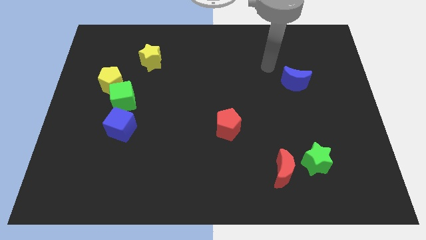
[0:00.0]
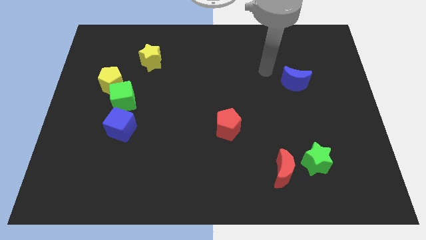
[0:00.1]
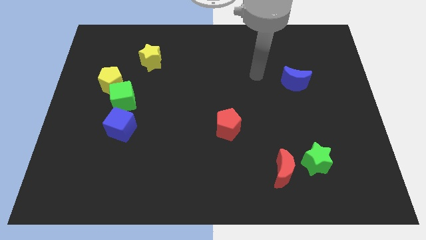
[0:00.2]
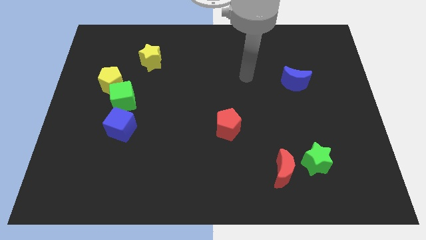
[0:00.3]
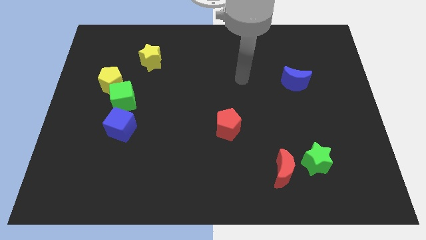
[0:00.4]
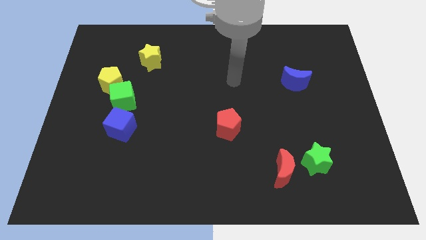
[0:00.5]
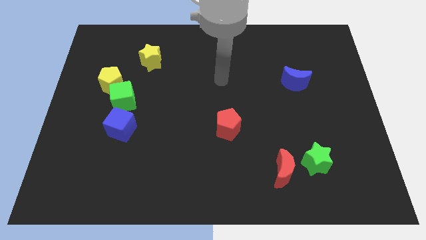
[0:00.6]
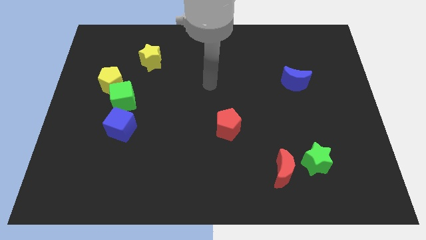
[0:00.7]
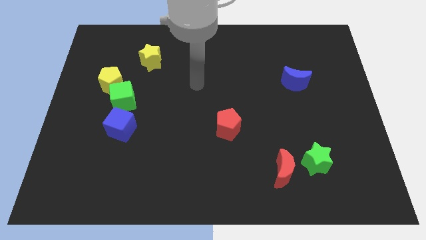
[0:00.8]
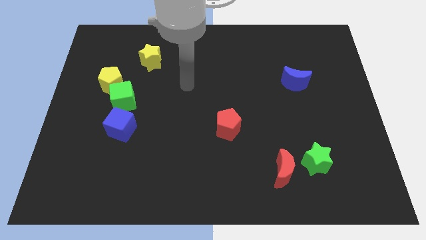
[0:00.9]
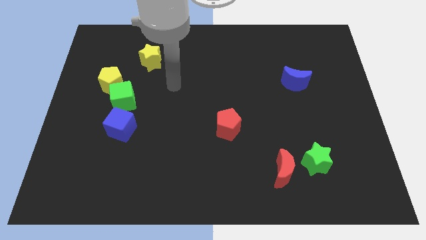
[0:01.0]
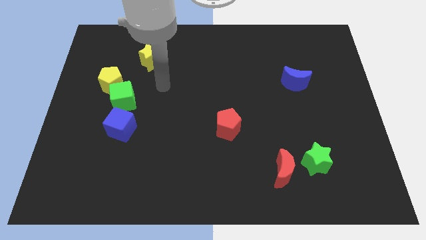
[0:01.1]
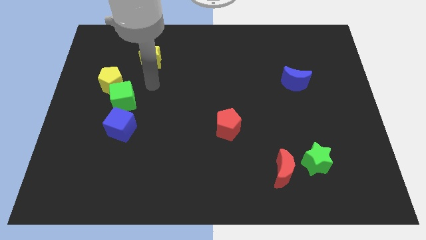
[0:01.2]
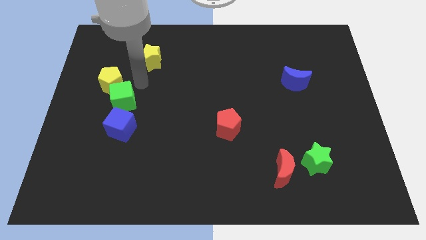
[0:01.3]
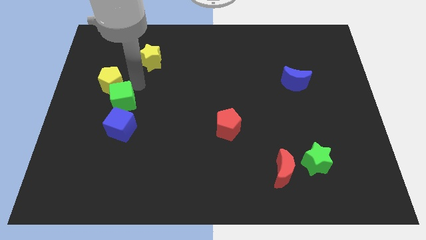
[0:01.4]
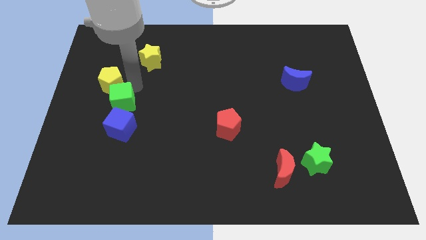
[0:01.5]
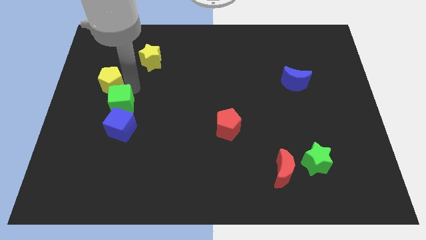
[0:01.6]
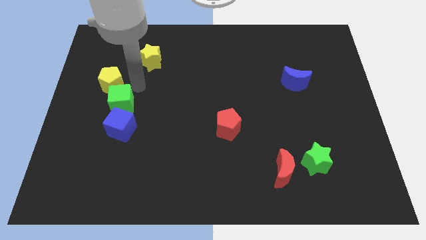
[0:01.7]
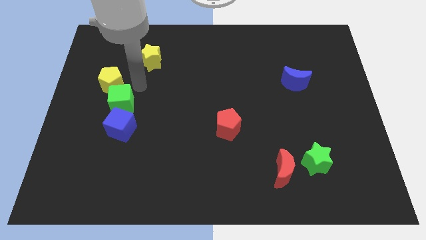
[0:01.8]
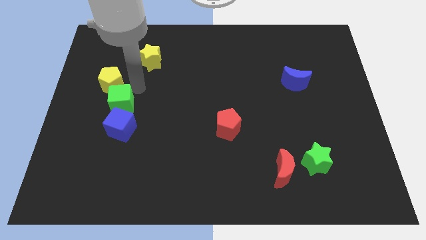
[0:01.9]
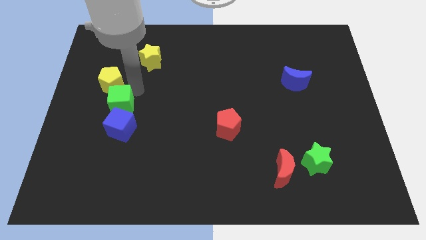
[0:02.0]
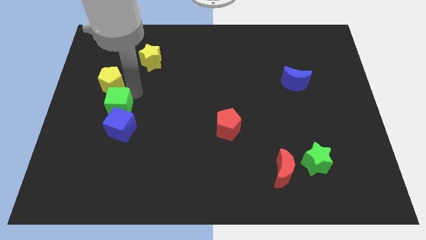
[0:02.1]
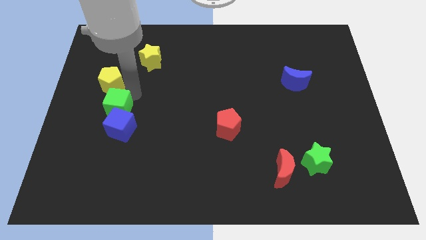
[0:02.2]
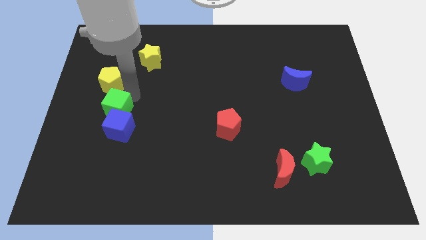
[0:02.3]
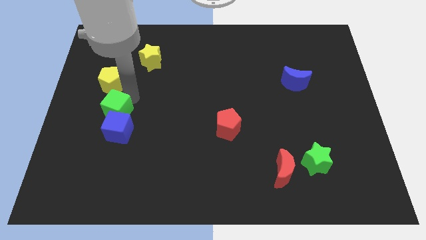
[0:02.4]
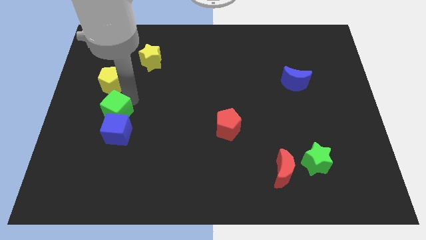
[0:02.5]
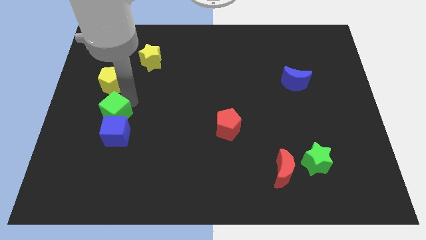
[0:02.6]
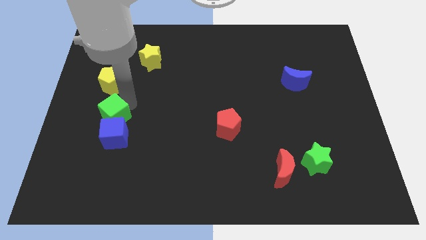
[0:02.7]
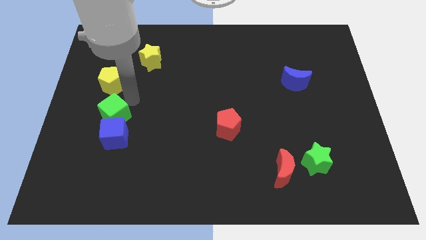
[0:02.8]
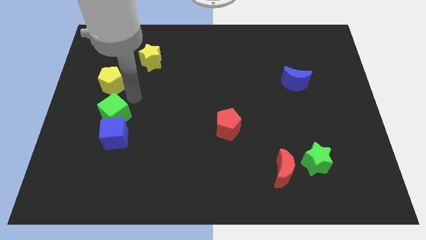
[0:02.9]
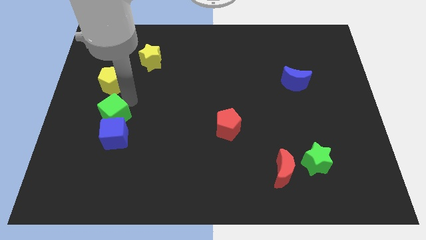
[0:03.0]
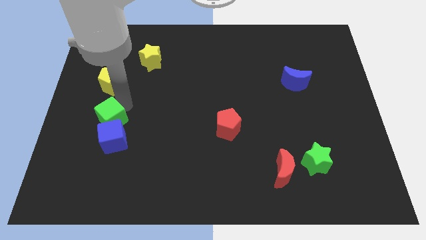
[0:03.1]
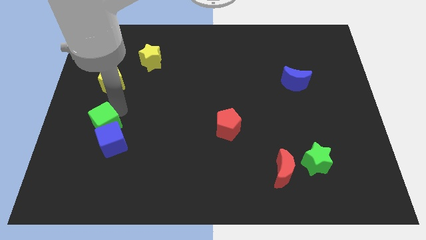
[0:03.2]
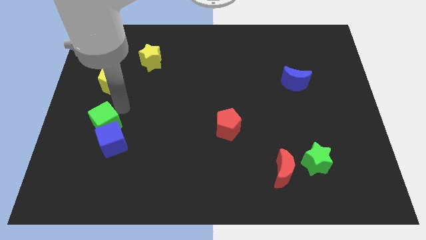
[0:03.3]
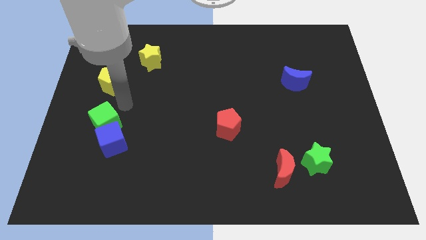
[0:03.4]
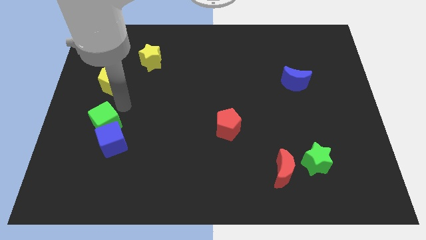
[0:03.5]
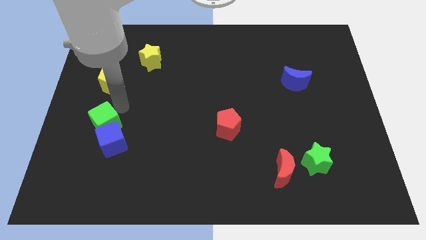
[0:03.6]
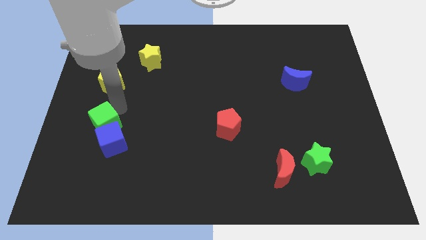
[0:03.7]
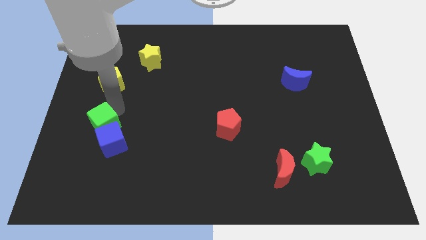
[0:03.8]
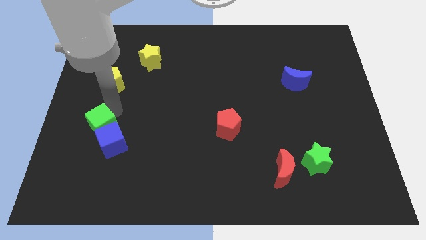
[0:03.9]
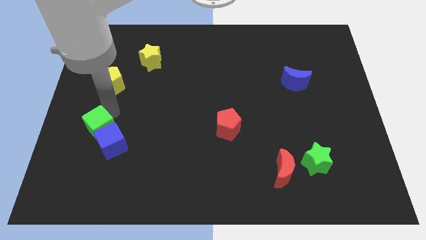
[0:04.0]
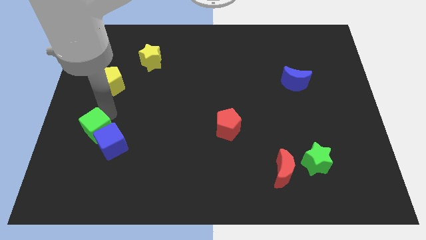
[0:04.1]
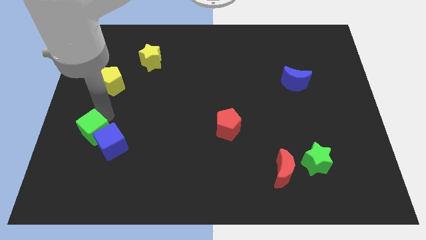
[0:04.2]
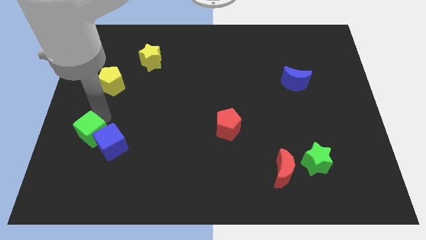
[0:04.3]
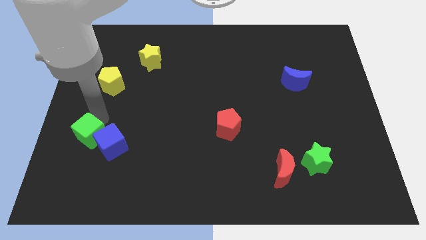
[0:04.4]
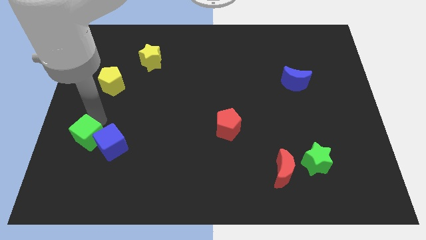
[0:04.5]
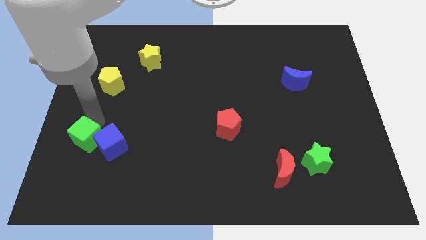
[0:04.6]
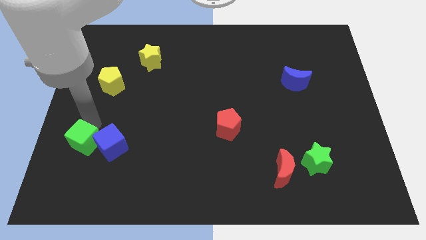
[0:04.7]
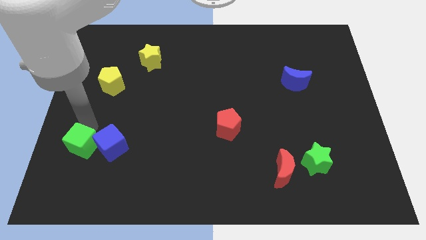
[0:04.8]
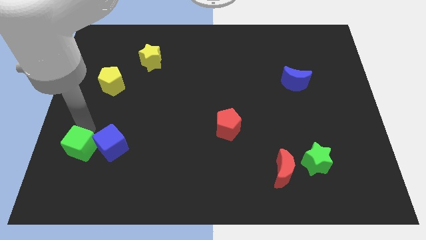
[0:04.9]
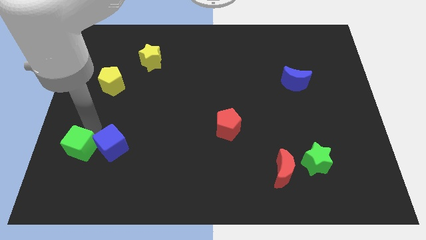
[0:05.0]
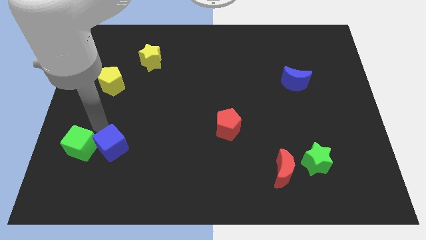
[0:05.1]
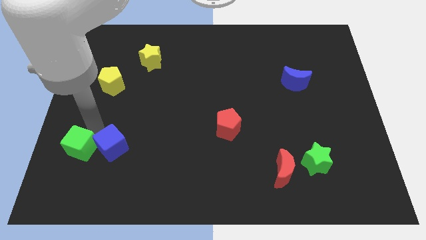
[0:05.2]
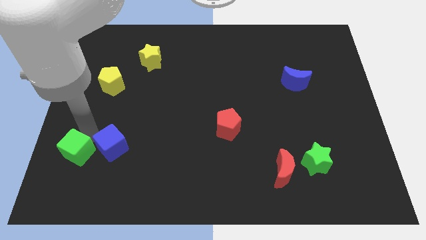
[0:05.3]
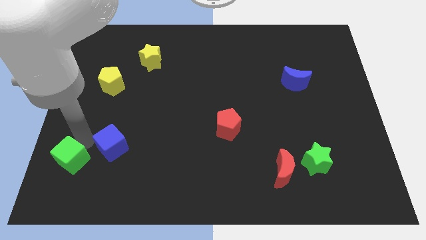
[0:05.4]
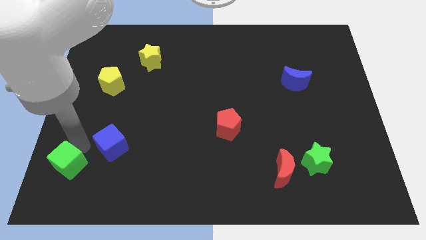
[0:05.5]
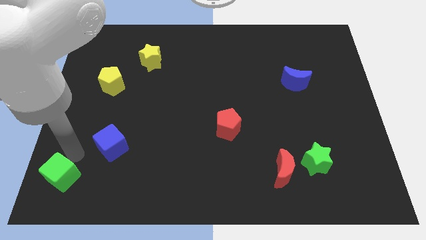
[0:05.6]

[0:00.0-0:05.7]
slide the green cube to the lower left corner

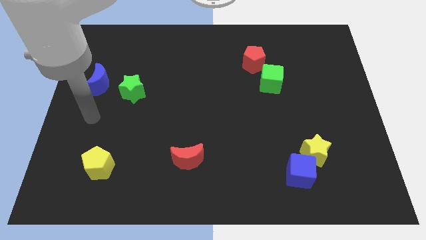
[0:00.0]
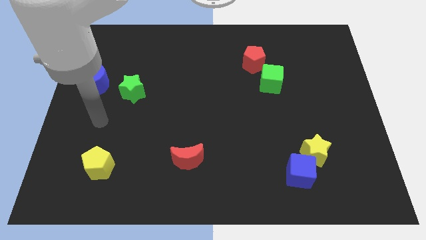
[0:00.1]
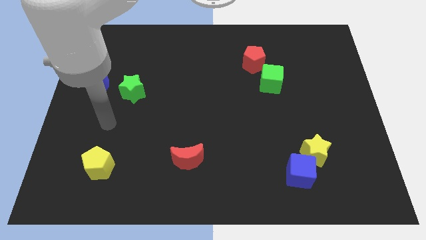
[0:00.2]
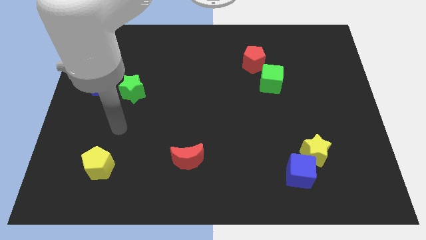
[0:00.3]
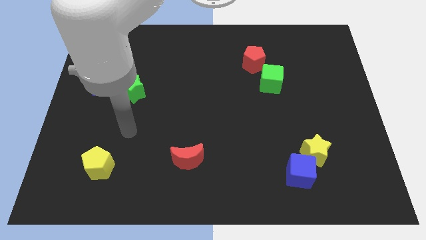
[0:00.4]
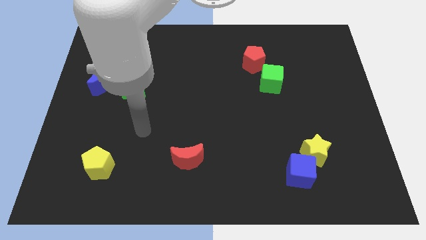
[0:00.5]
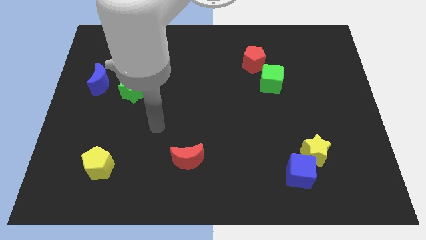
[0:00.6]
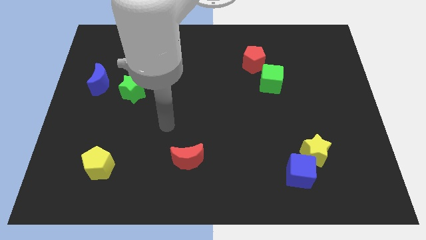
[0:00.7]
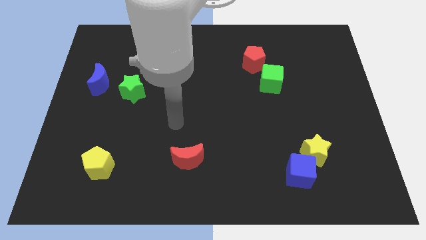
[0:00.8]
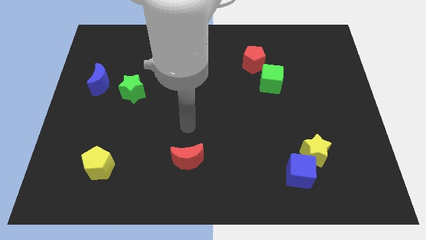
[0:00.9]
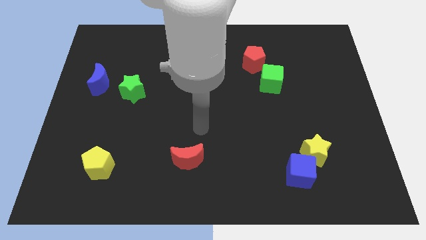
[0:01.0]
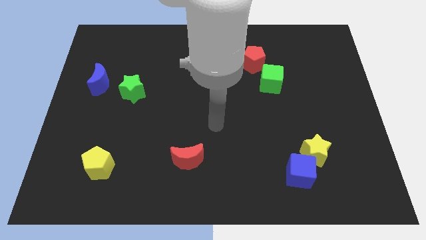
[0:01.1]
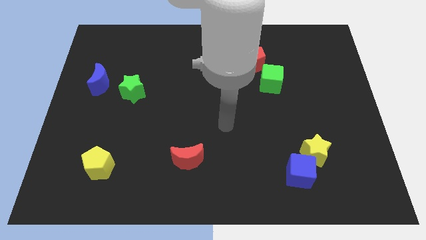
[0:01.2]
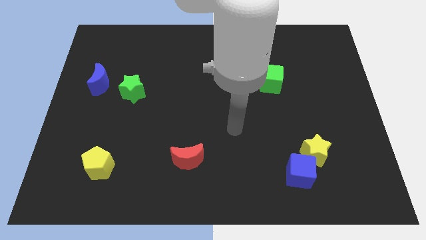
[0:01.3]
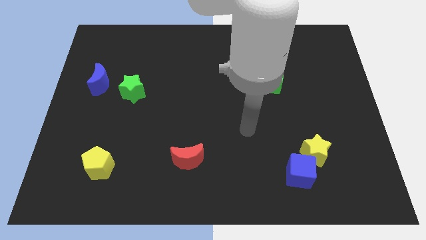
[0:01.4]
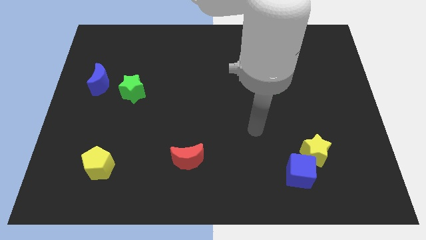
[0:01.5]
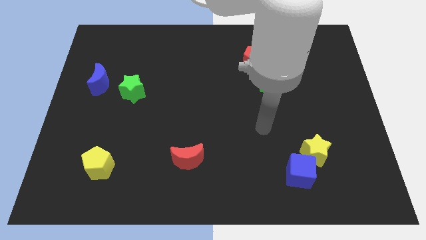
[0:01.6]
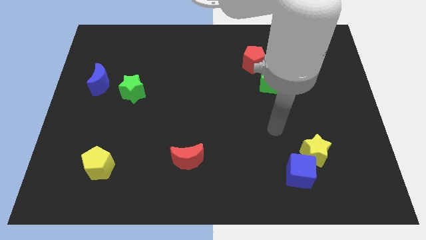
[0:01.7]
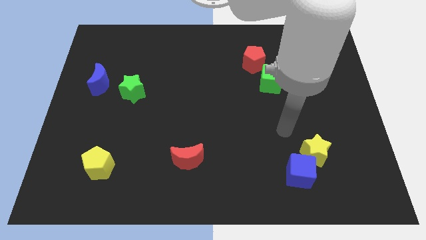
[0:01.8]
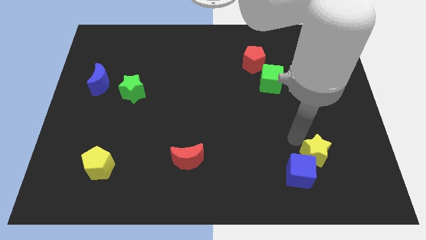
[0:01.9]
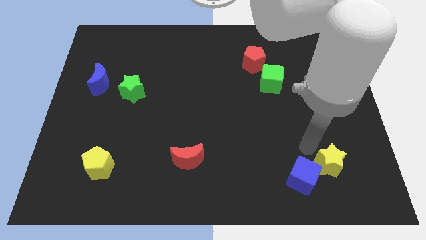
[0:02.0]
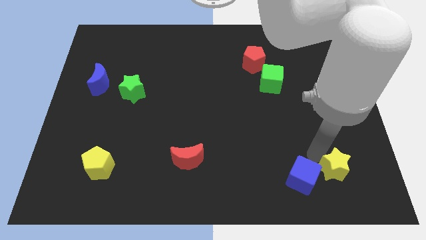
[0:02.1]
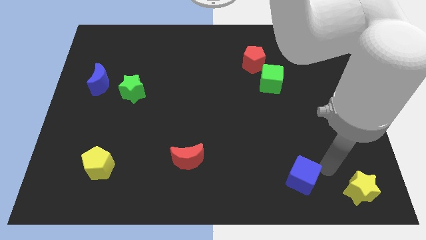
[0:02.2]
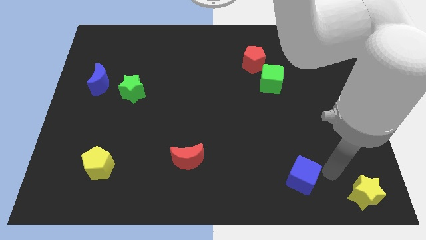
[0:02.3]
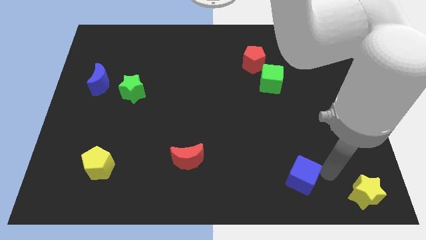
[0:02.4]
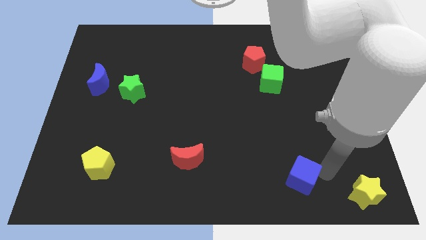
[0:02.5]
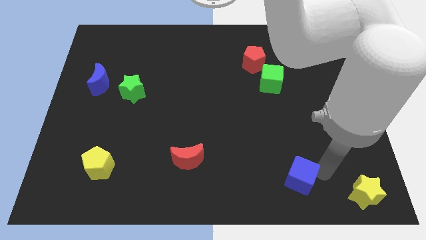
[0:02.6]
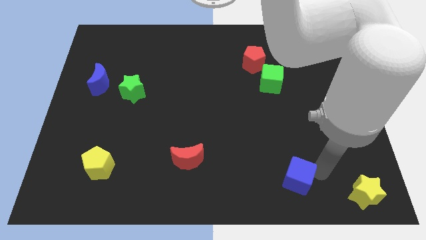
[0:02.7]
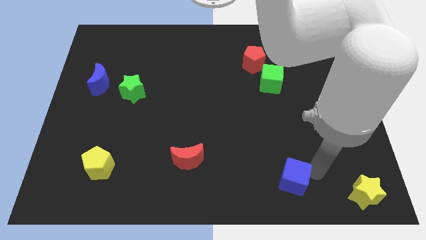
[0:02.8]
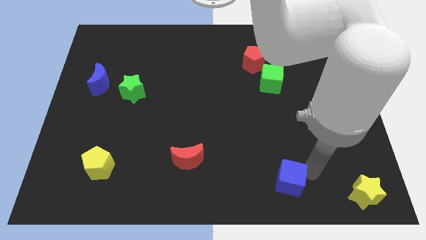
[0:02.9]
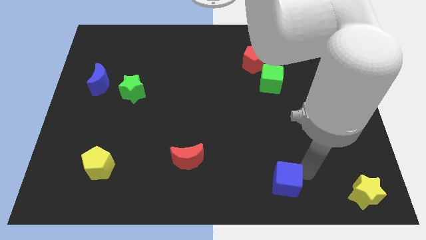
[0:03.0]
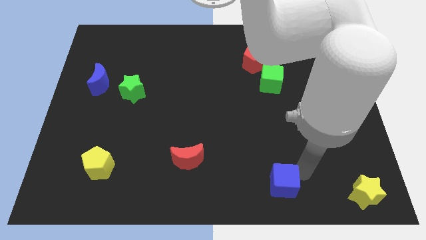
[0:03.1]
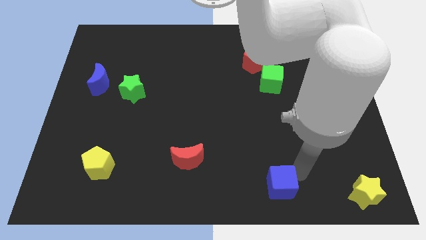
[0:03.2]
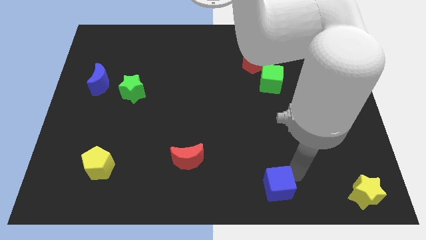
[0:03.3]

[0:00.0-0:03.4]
move the blue cube to the bottom
